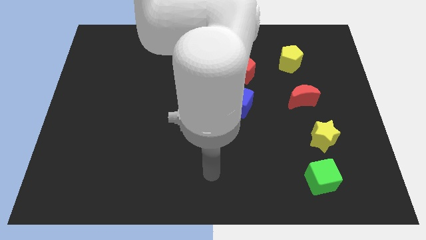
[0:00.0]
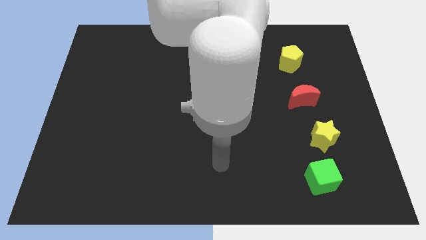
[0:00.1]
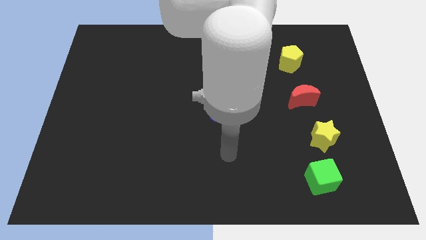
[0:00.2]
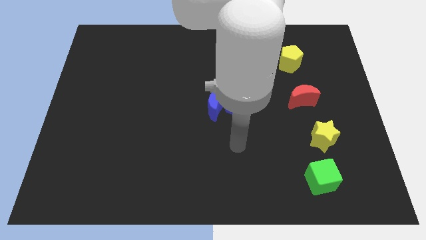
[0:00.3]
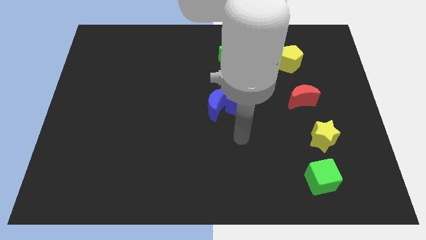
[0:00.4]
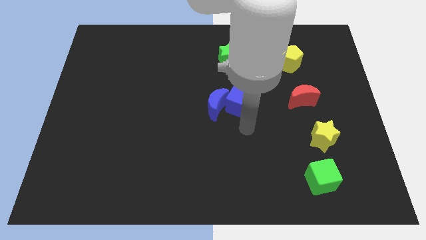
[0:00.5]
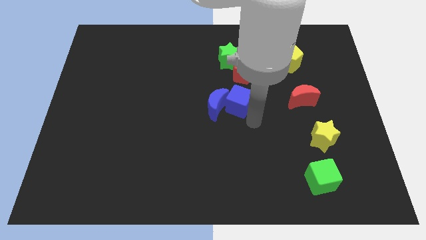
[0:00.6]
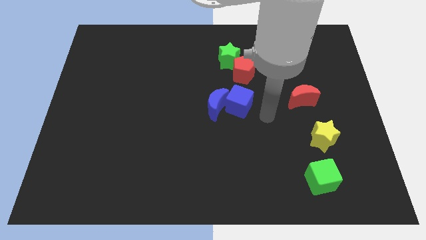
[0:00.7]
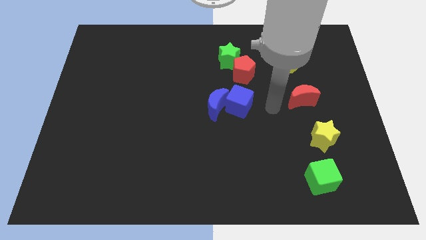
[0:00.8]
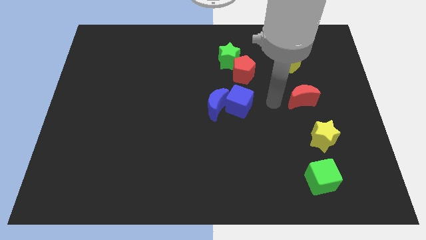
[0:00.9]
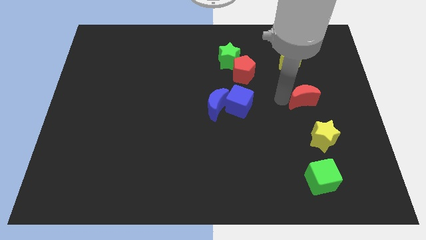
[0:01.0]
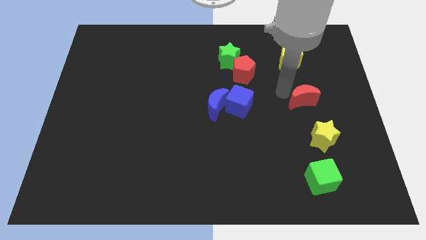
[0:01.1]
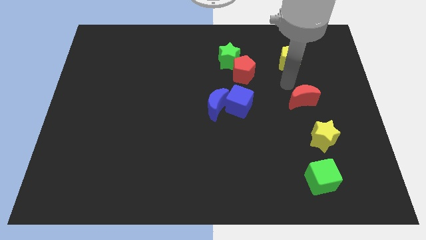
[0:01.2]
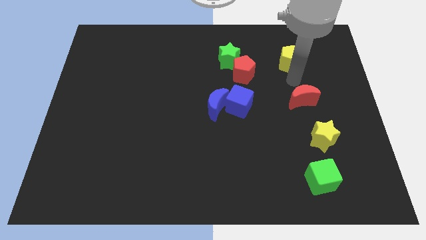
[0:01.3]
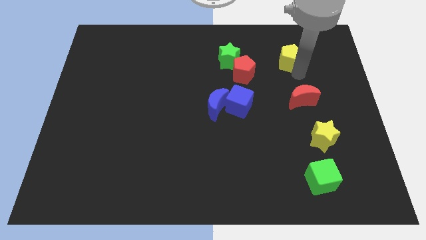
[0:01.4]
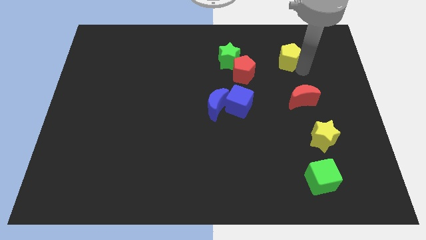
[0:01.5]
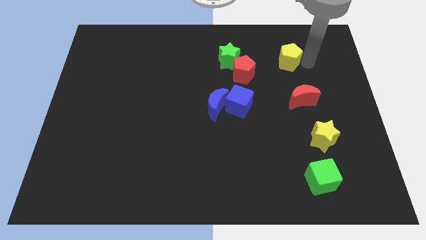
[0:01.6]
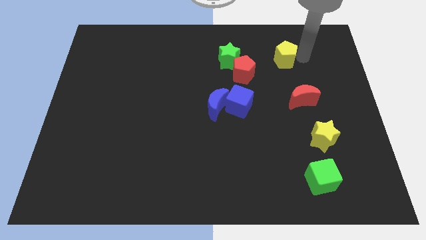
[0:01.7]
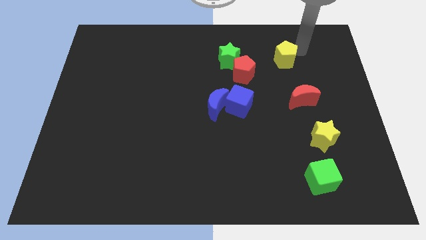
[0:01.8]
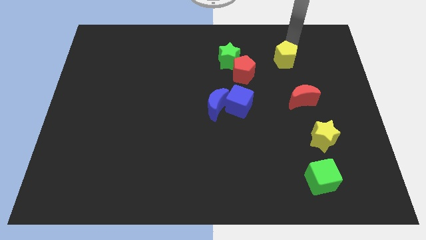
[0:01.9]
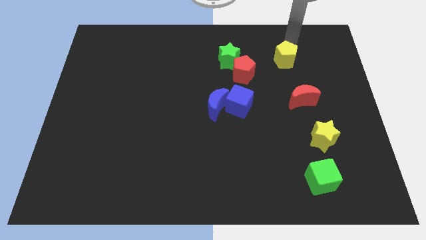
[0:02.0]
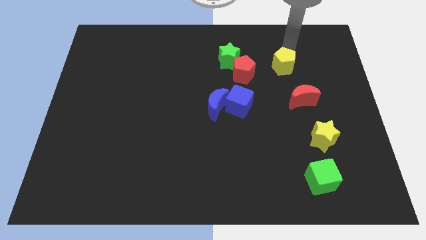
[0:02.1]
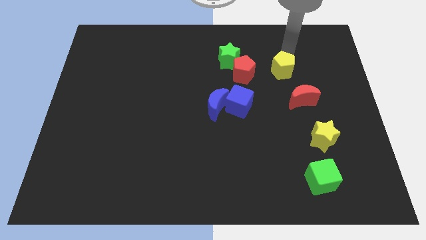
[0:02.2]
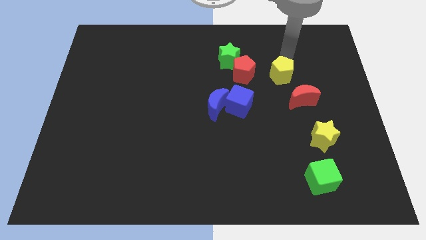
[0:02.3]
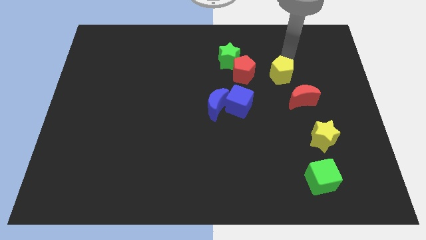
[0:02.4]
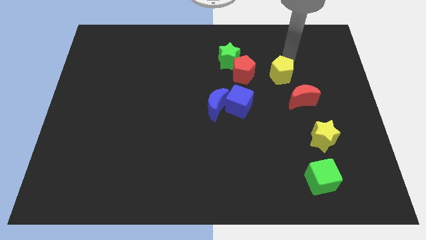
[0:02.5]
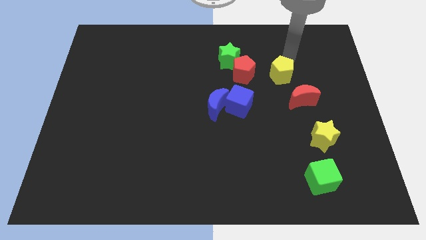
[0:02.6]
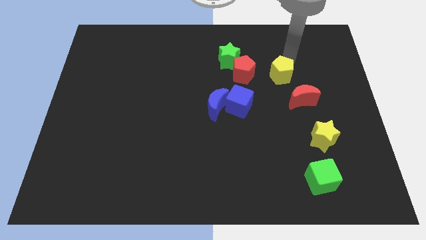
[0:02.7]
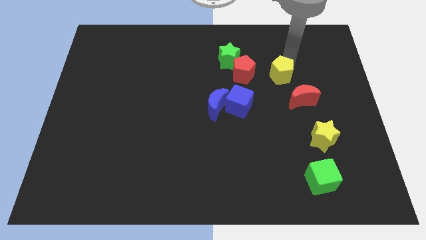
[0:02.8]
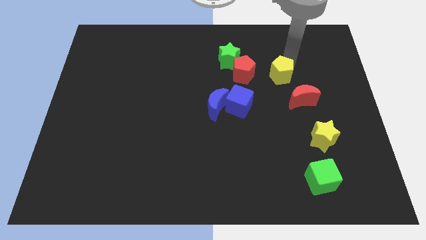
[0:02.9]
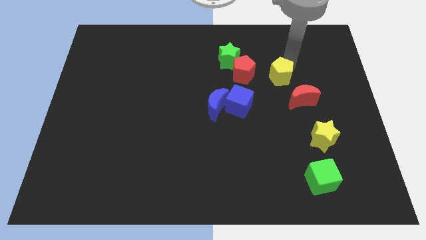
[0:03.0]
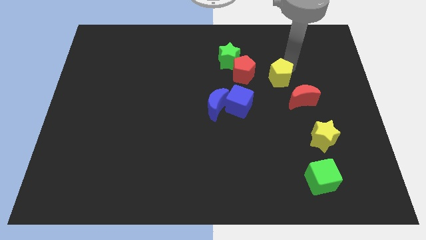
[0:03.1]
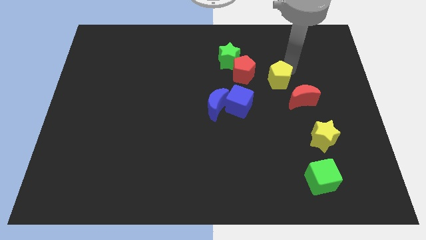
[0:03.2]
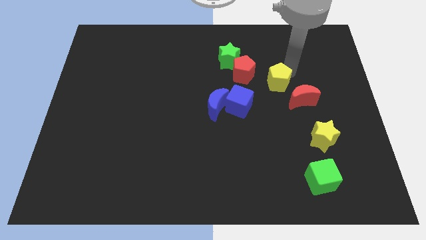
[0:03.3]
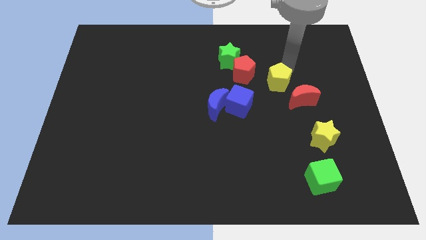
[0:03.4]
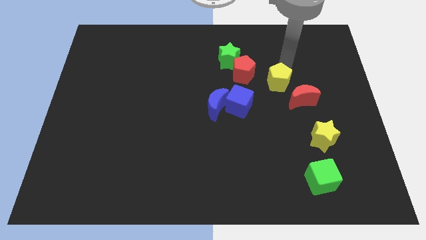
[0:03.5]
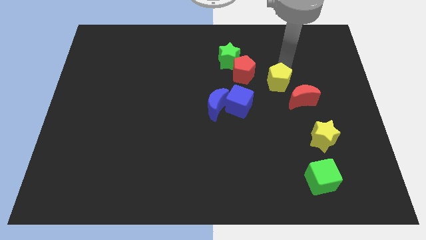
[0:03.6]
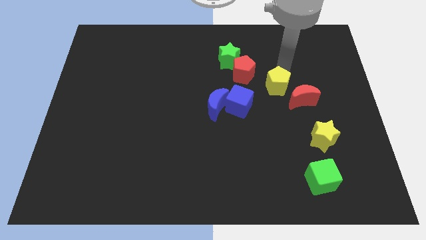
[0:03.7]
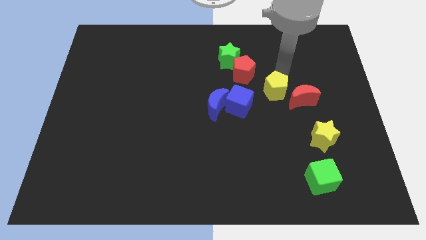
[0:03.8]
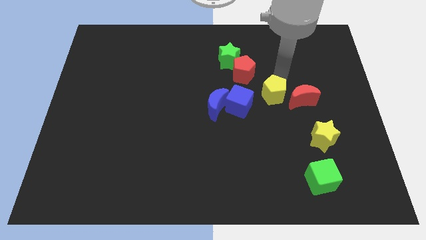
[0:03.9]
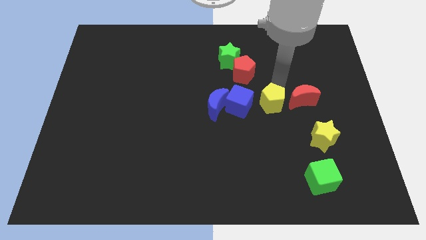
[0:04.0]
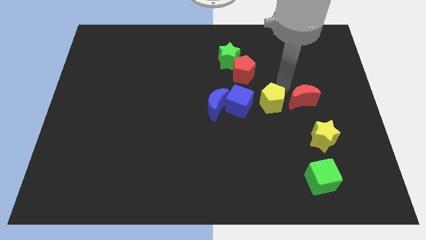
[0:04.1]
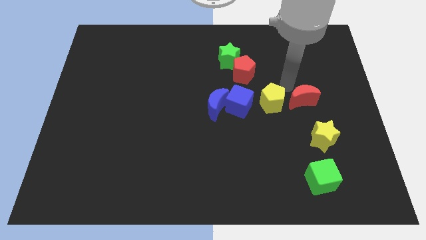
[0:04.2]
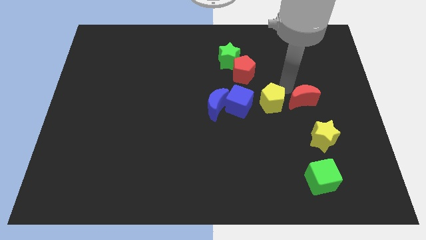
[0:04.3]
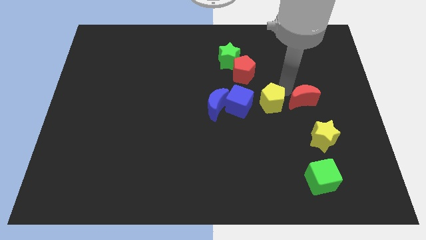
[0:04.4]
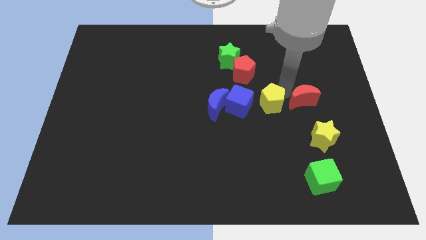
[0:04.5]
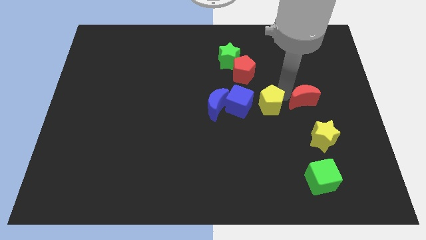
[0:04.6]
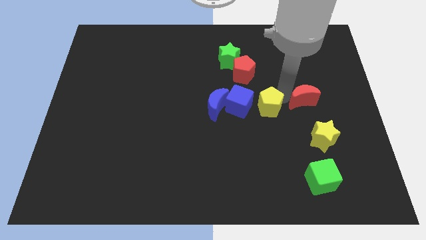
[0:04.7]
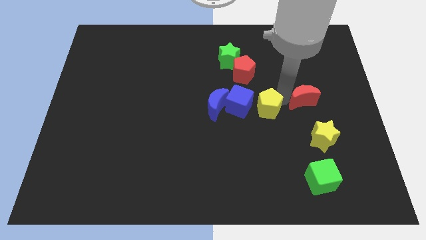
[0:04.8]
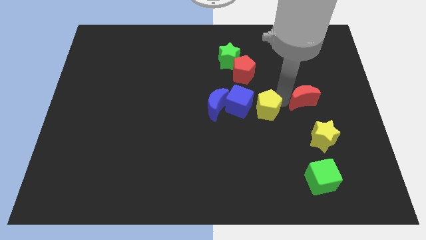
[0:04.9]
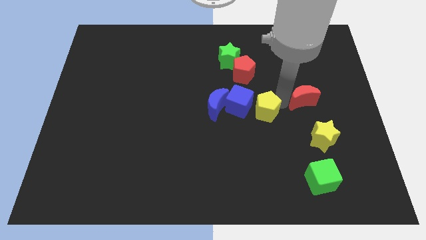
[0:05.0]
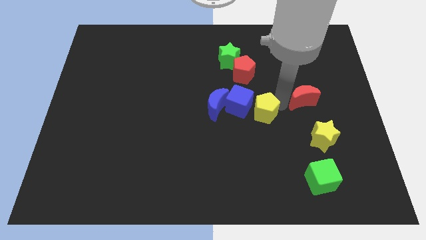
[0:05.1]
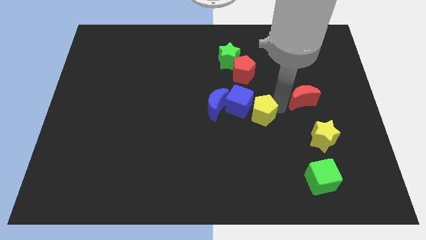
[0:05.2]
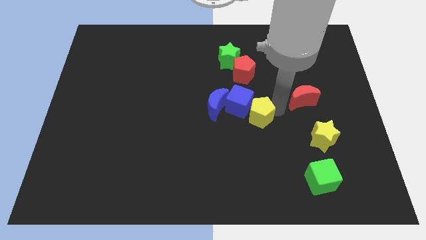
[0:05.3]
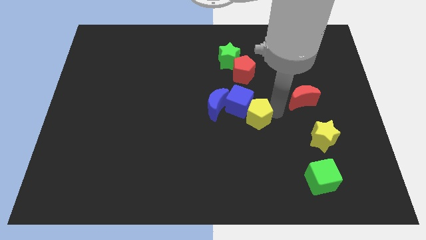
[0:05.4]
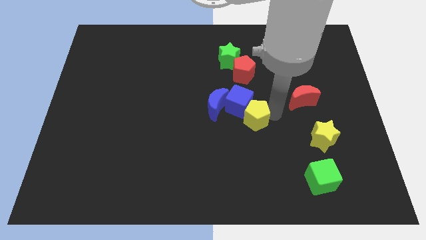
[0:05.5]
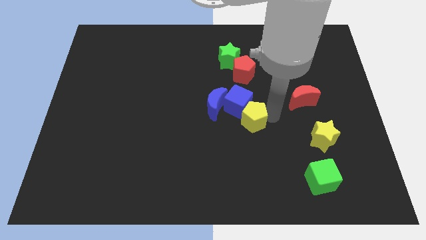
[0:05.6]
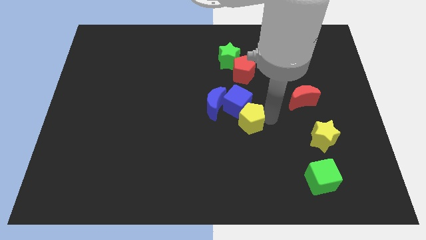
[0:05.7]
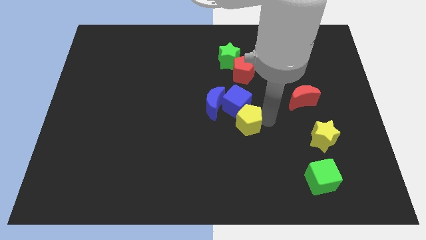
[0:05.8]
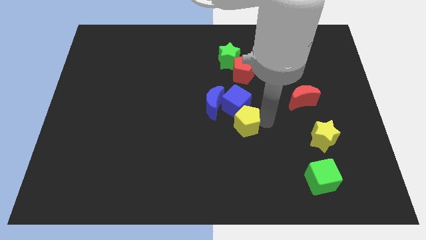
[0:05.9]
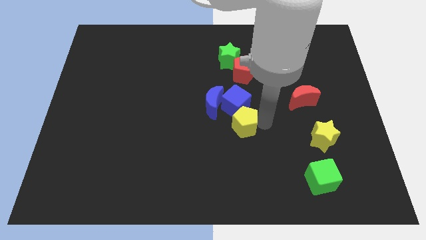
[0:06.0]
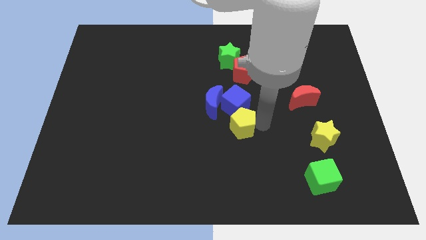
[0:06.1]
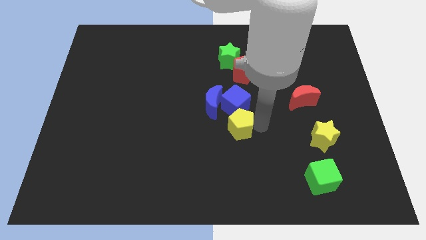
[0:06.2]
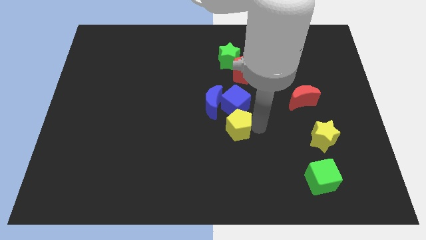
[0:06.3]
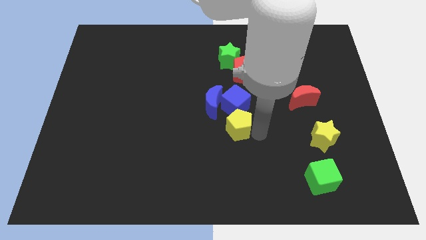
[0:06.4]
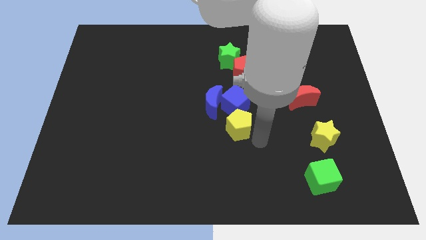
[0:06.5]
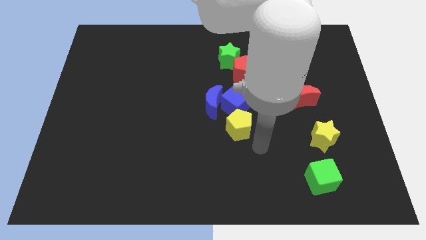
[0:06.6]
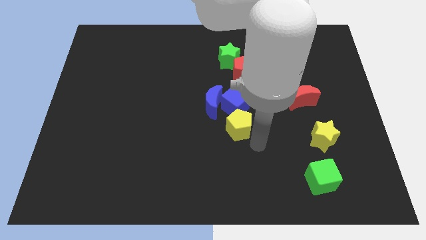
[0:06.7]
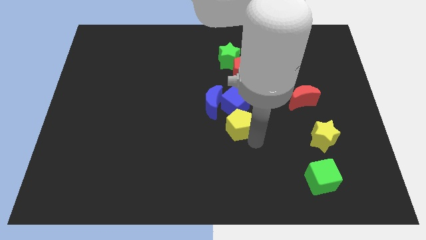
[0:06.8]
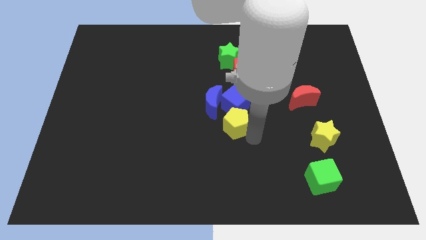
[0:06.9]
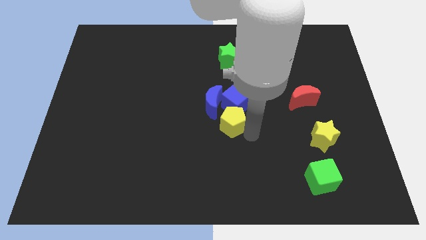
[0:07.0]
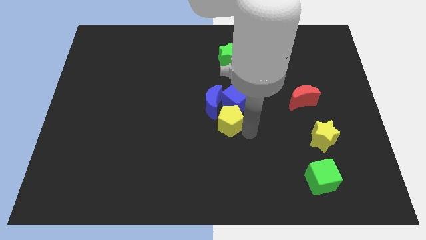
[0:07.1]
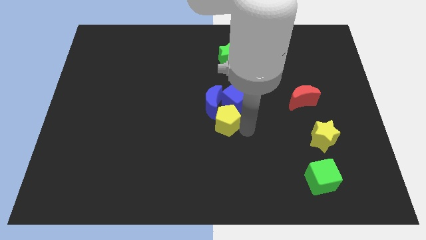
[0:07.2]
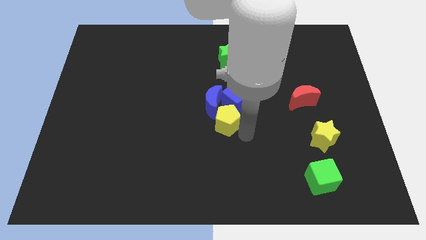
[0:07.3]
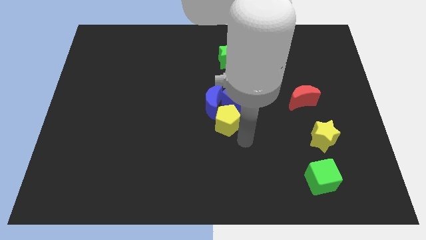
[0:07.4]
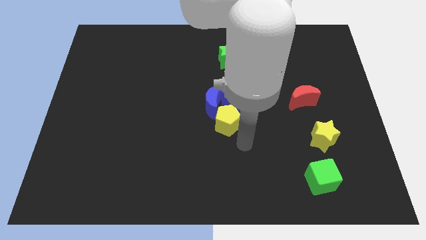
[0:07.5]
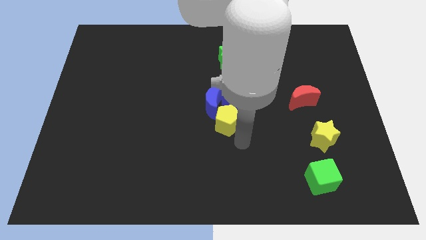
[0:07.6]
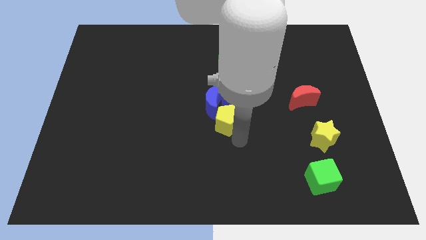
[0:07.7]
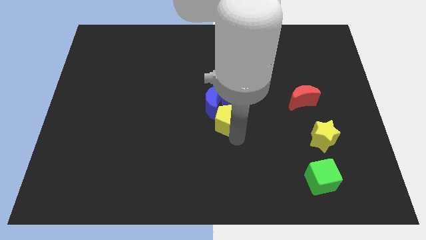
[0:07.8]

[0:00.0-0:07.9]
push the yellow pentagon towards the blue moon
